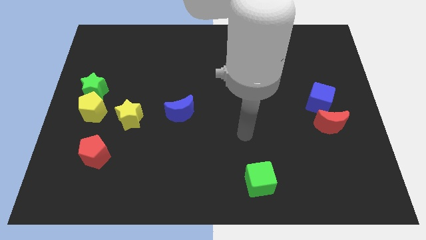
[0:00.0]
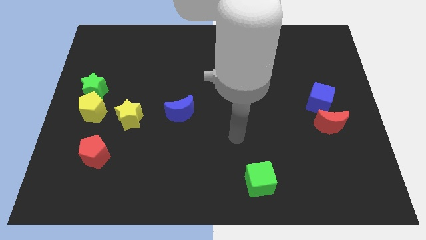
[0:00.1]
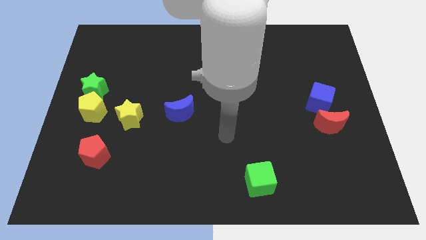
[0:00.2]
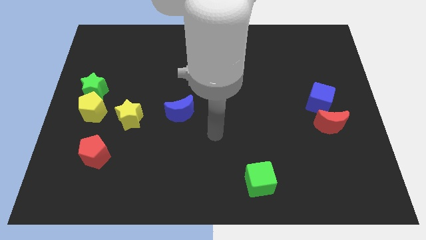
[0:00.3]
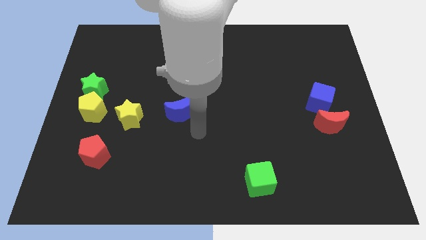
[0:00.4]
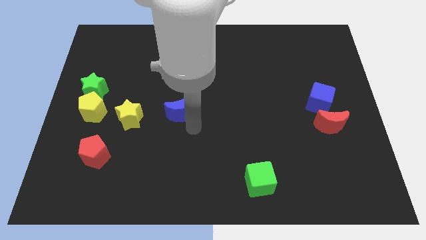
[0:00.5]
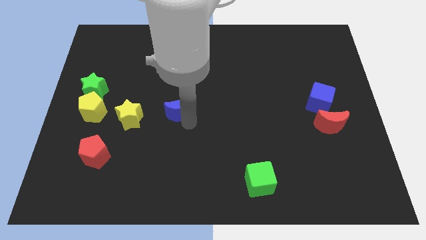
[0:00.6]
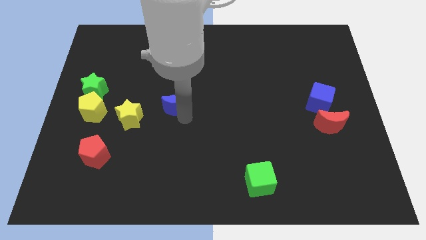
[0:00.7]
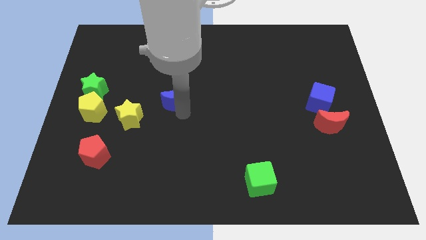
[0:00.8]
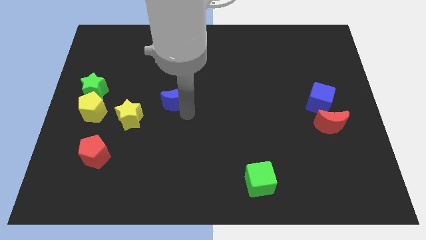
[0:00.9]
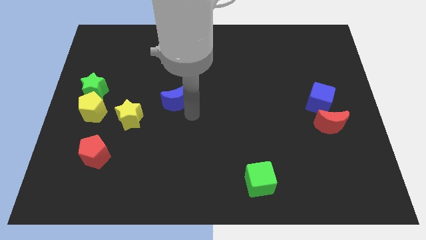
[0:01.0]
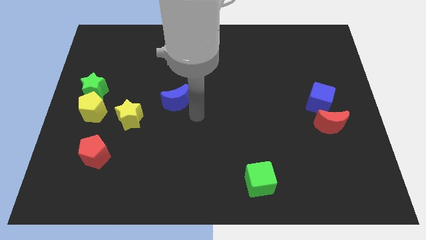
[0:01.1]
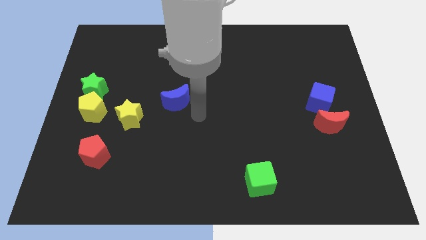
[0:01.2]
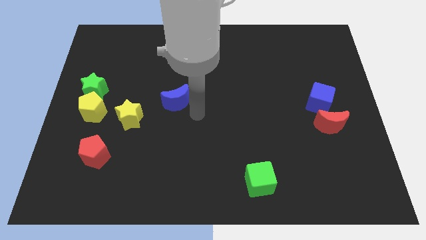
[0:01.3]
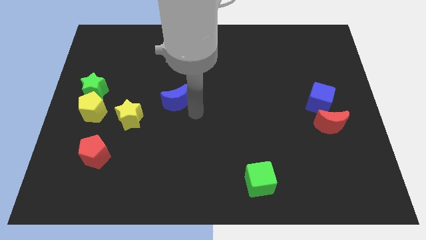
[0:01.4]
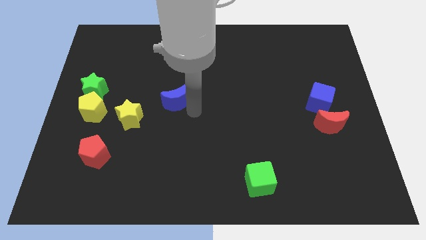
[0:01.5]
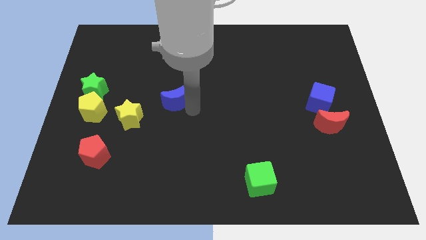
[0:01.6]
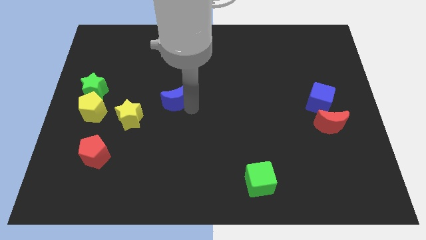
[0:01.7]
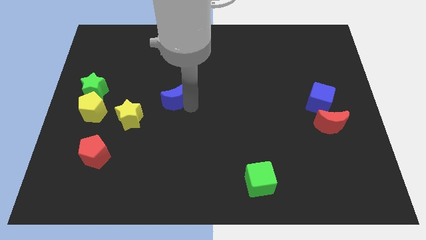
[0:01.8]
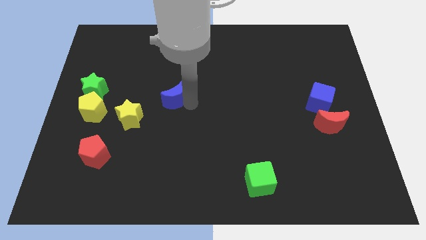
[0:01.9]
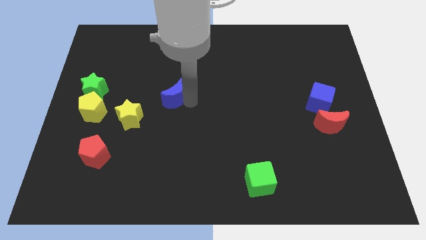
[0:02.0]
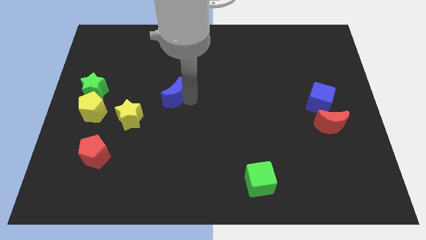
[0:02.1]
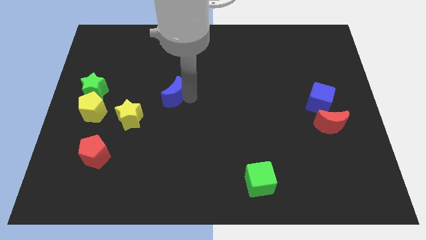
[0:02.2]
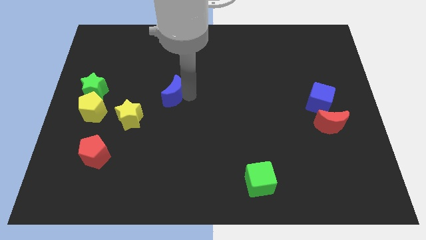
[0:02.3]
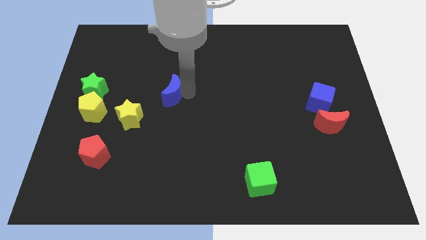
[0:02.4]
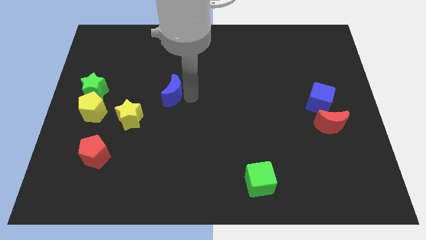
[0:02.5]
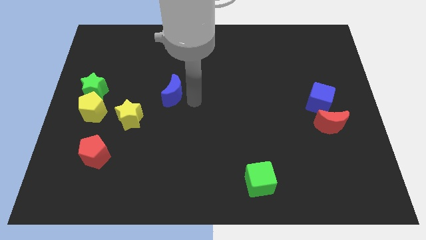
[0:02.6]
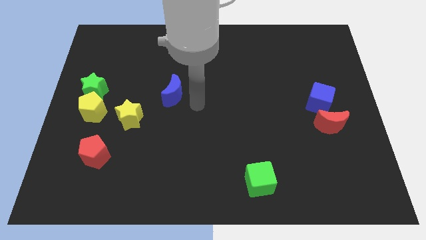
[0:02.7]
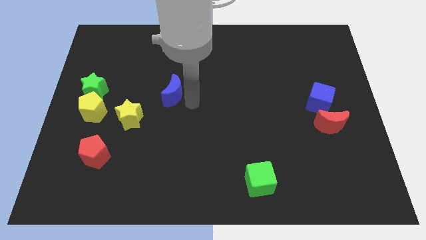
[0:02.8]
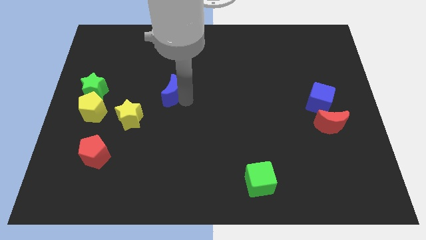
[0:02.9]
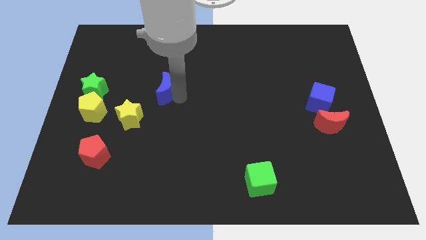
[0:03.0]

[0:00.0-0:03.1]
slightly move the blue moon up and to the left diagonally

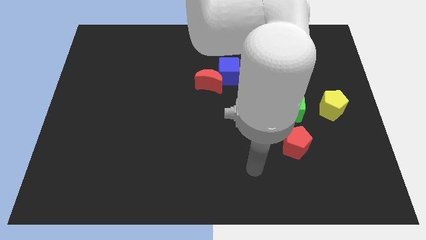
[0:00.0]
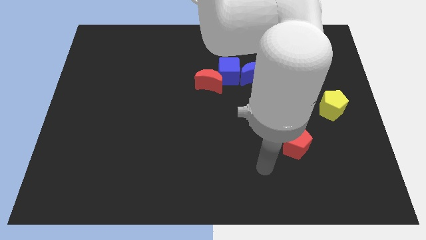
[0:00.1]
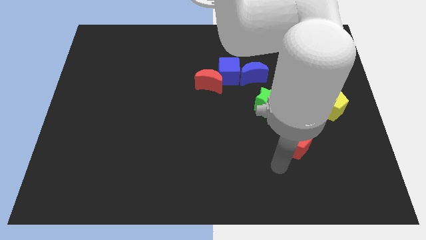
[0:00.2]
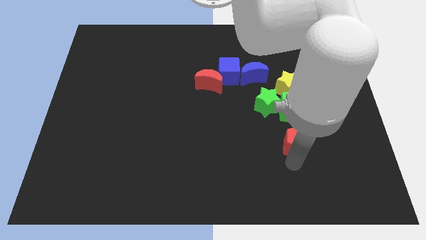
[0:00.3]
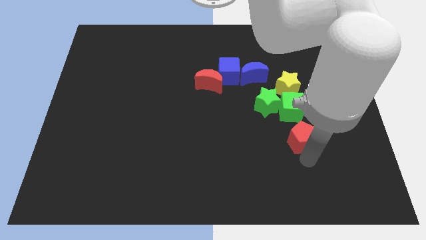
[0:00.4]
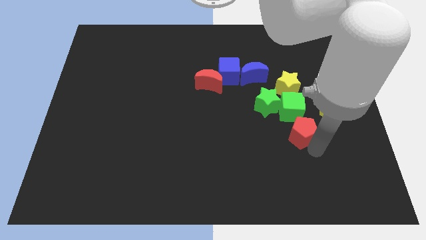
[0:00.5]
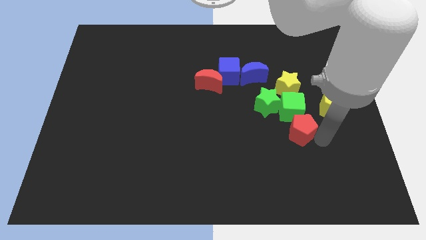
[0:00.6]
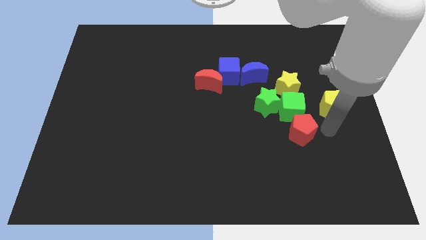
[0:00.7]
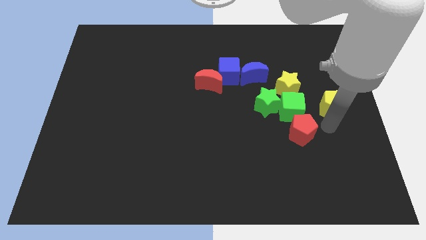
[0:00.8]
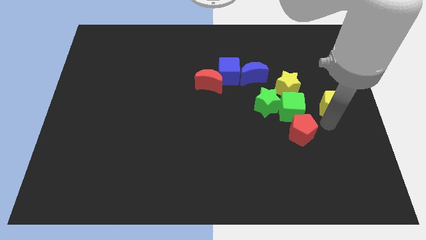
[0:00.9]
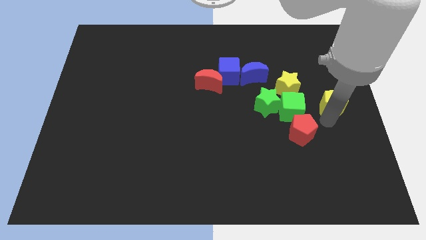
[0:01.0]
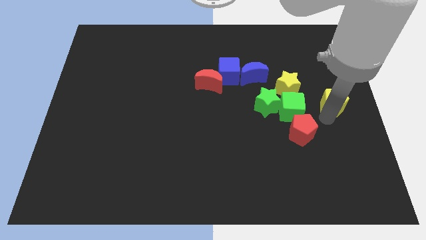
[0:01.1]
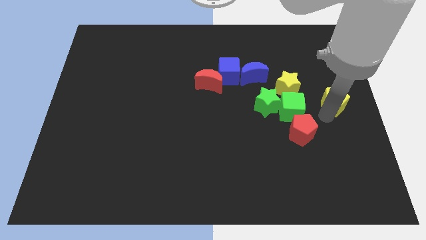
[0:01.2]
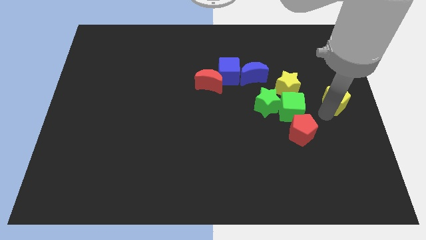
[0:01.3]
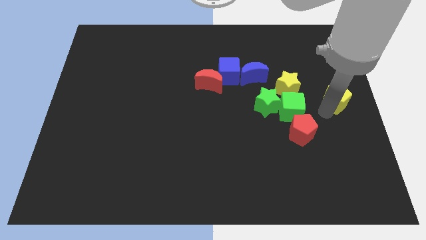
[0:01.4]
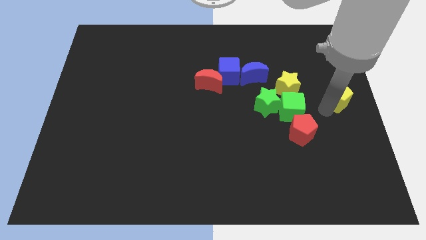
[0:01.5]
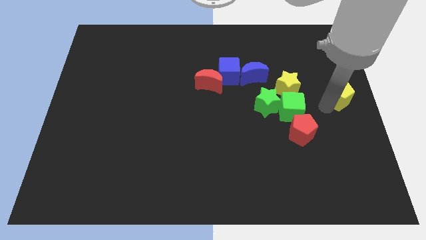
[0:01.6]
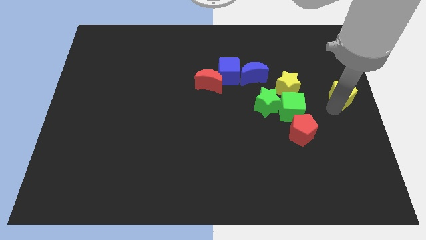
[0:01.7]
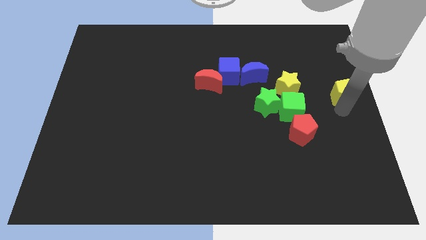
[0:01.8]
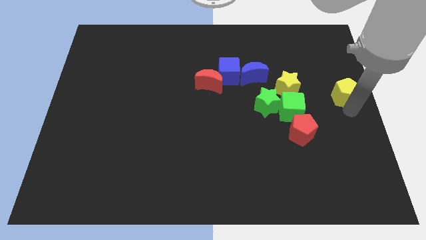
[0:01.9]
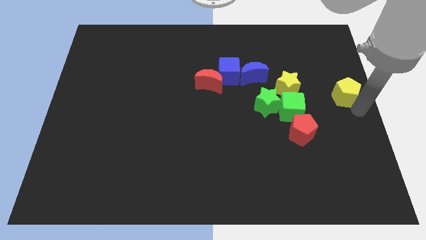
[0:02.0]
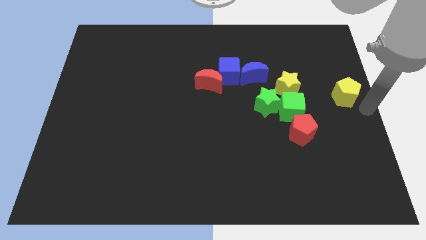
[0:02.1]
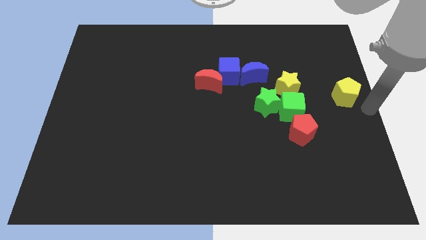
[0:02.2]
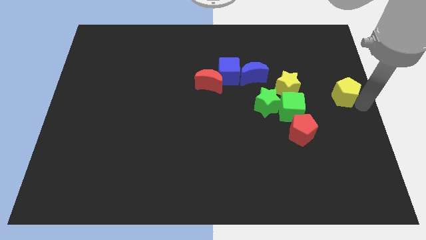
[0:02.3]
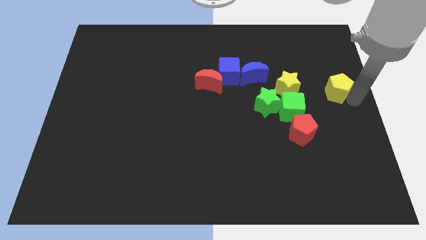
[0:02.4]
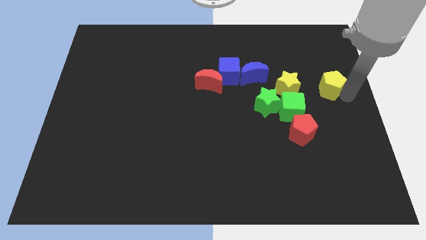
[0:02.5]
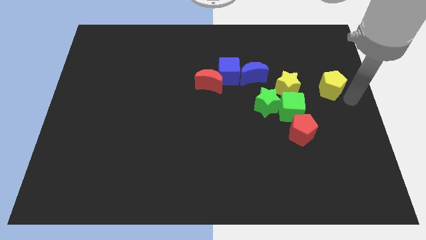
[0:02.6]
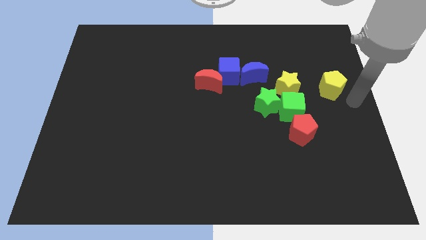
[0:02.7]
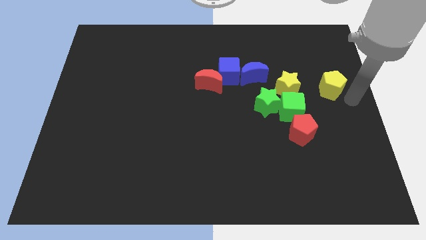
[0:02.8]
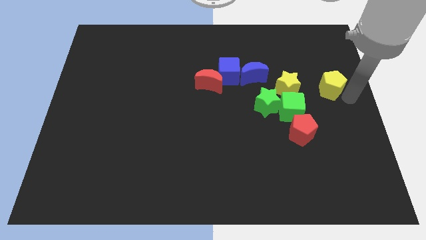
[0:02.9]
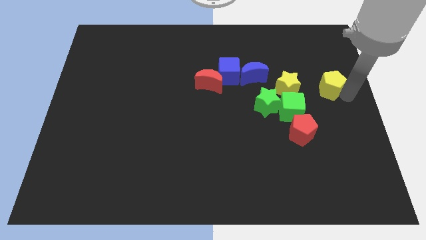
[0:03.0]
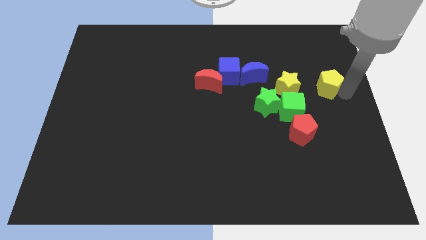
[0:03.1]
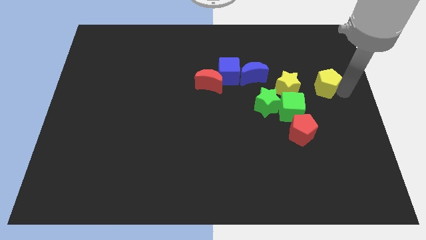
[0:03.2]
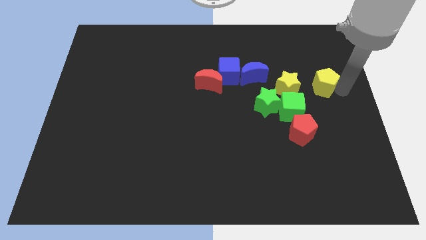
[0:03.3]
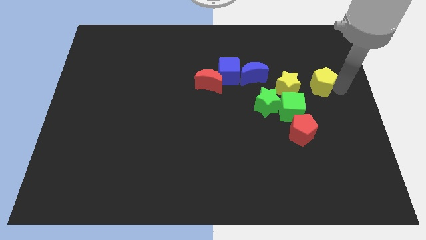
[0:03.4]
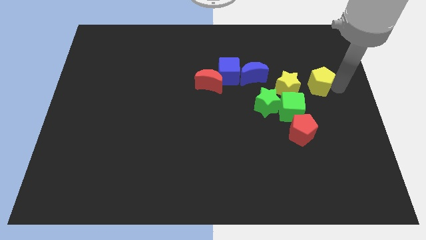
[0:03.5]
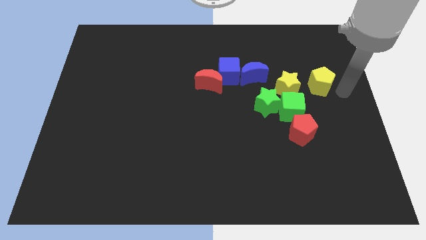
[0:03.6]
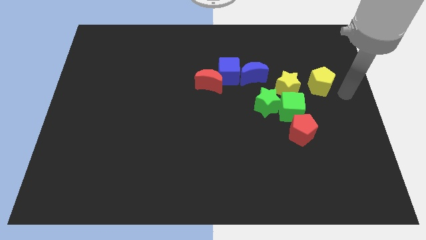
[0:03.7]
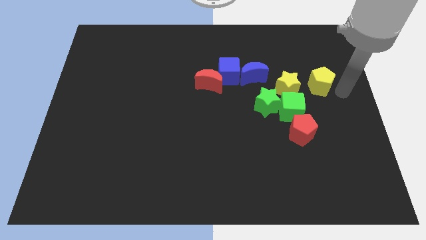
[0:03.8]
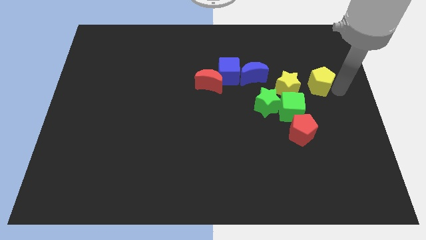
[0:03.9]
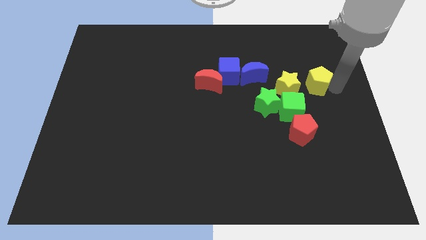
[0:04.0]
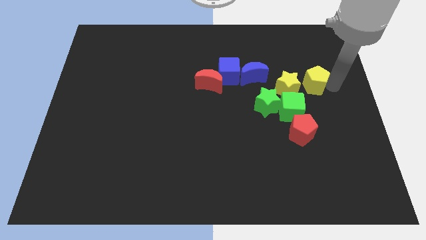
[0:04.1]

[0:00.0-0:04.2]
slide the yellow pentagon slightly up and left diagonally

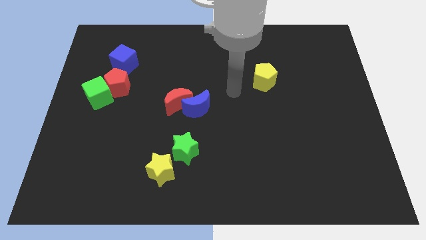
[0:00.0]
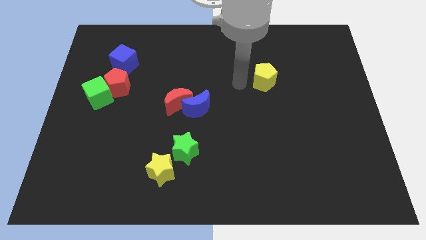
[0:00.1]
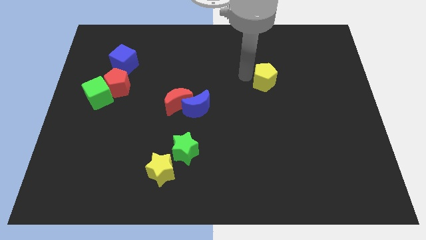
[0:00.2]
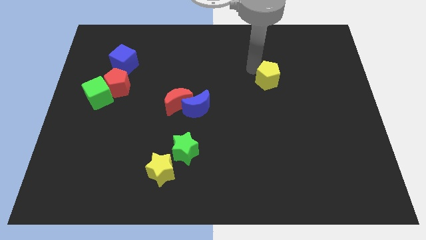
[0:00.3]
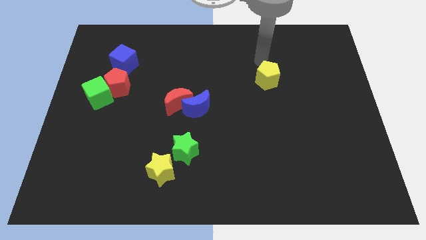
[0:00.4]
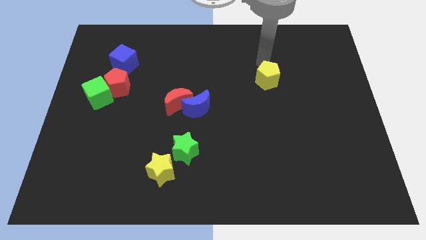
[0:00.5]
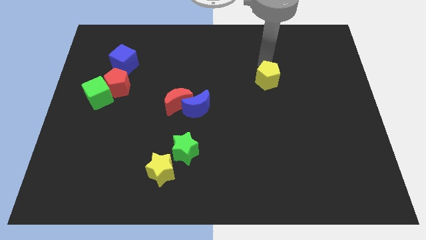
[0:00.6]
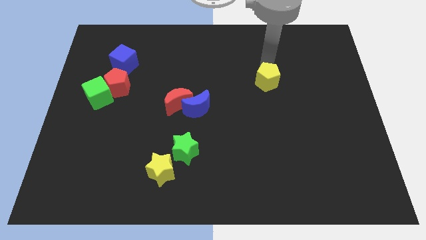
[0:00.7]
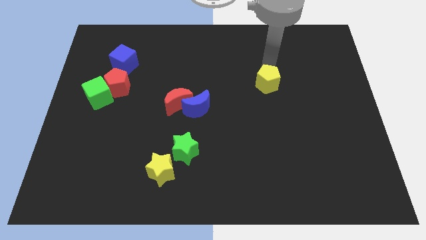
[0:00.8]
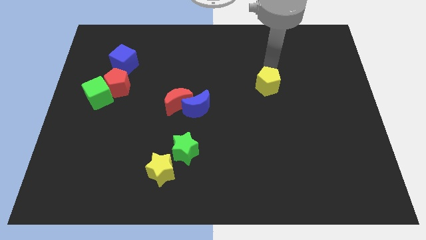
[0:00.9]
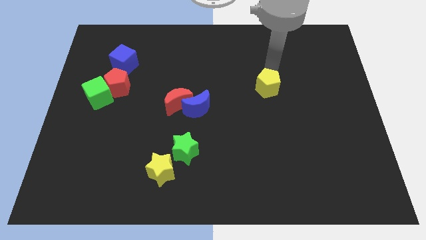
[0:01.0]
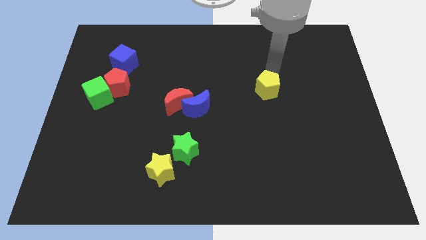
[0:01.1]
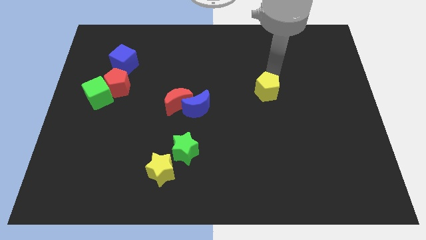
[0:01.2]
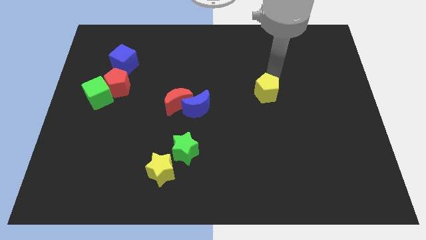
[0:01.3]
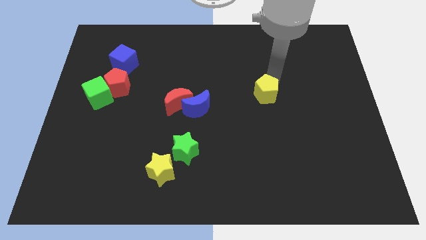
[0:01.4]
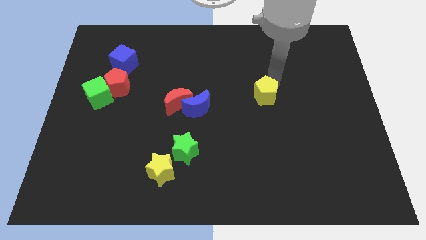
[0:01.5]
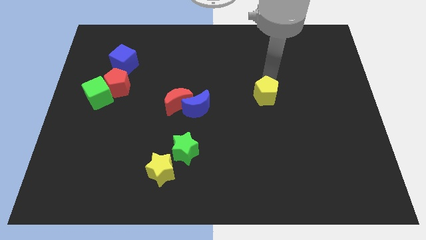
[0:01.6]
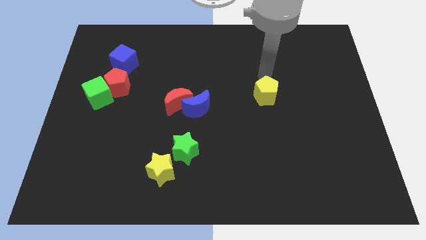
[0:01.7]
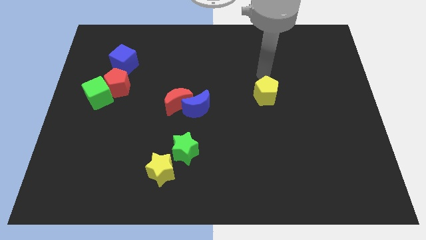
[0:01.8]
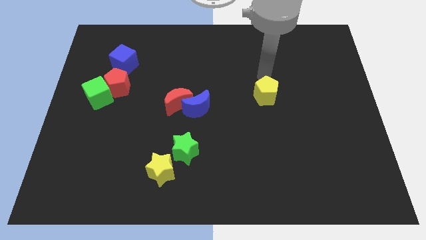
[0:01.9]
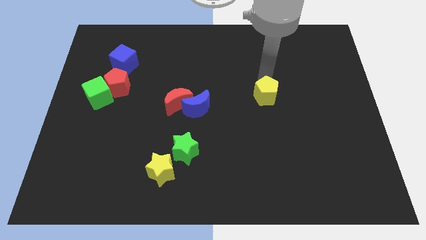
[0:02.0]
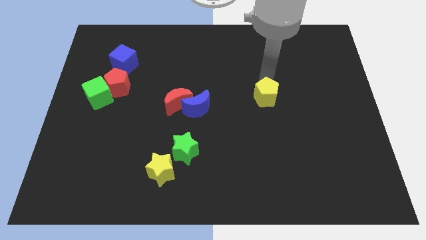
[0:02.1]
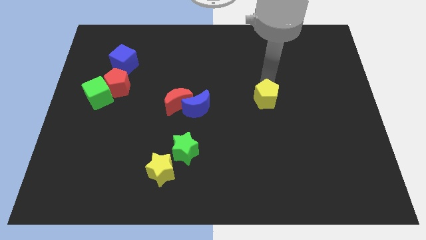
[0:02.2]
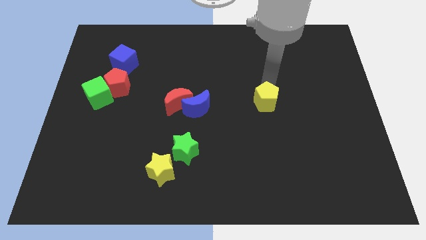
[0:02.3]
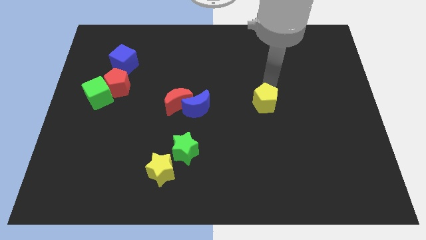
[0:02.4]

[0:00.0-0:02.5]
slide the yellow pentagon somewhat downwards
